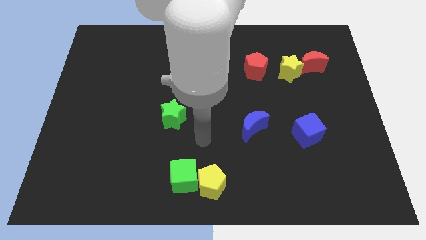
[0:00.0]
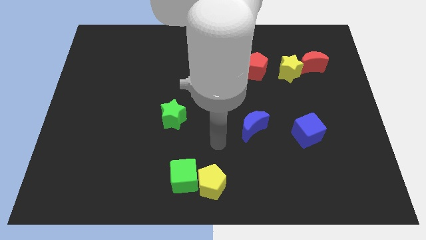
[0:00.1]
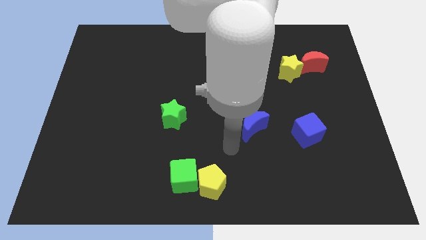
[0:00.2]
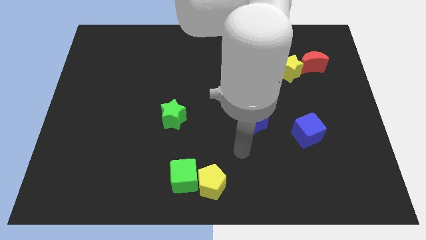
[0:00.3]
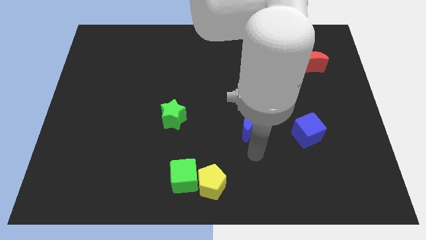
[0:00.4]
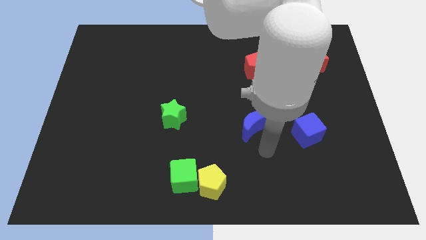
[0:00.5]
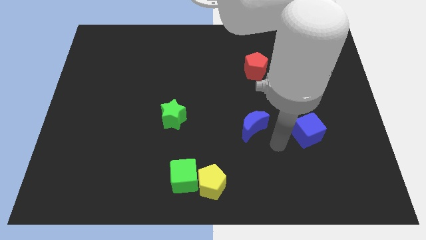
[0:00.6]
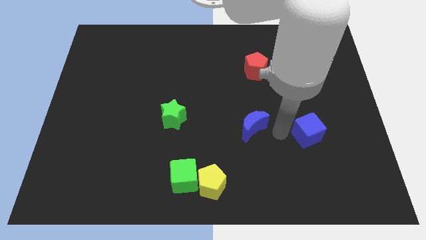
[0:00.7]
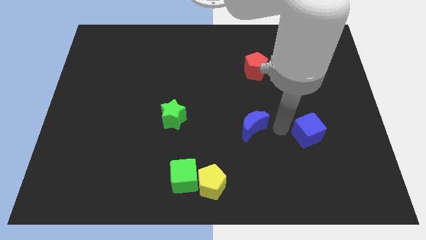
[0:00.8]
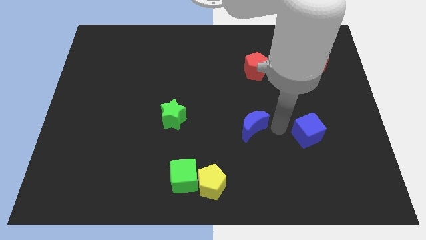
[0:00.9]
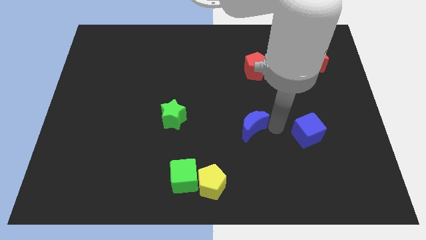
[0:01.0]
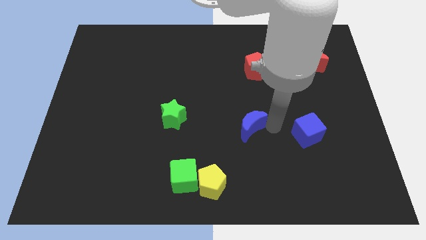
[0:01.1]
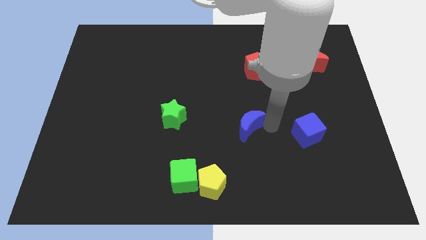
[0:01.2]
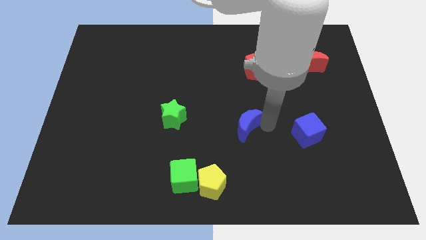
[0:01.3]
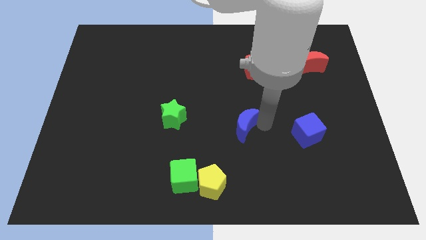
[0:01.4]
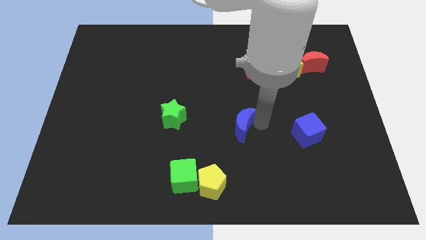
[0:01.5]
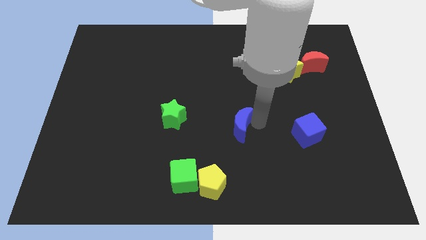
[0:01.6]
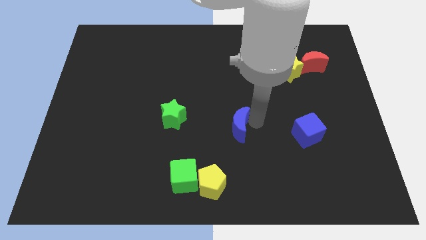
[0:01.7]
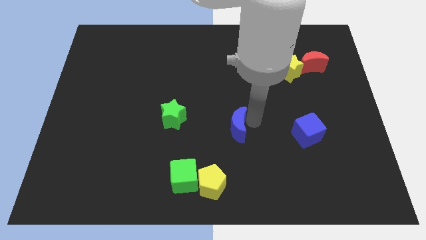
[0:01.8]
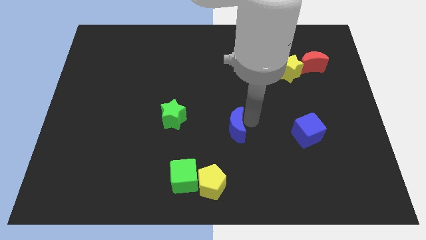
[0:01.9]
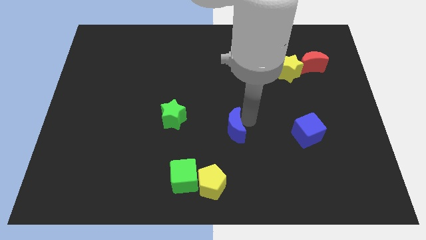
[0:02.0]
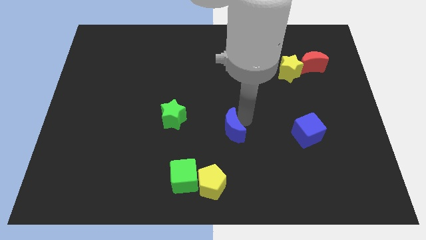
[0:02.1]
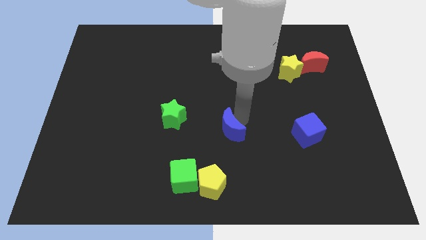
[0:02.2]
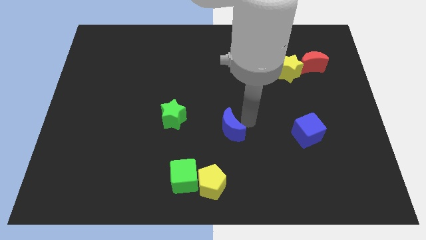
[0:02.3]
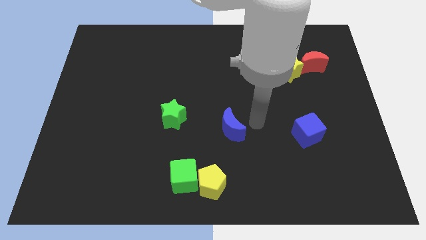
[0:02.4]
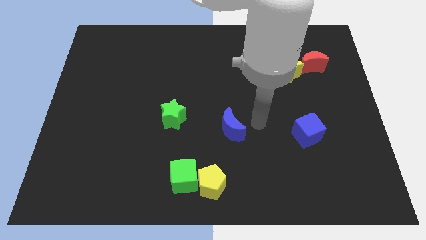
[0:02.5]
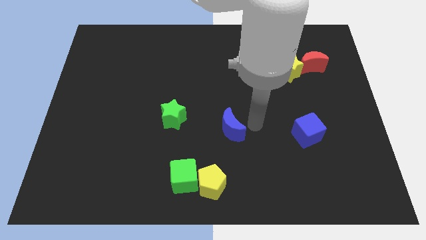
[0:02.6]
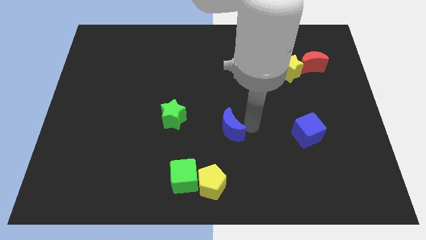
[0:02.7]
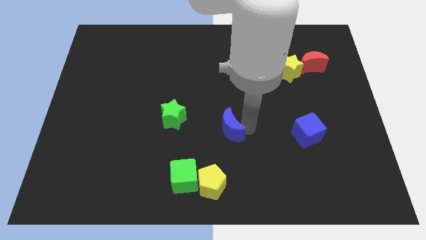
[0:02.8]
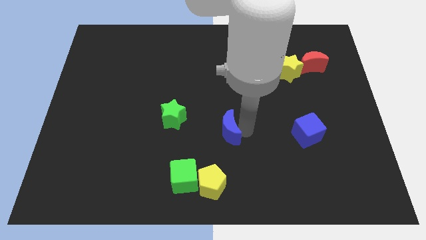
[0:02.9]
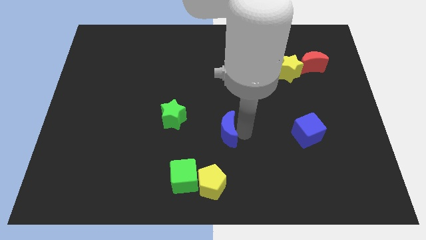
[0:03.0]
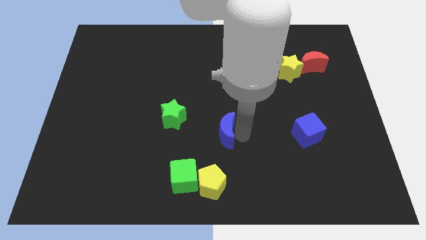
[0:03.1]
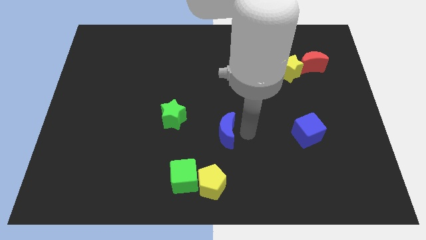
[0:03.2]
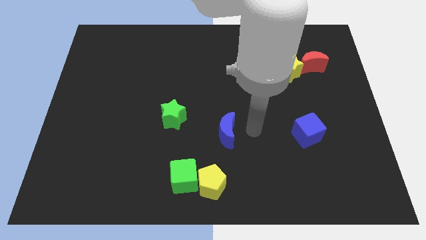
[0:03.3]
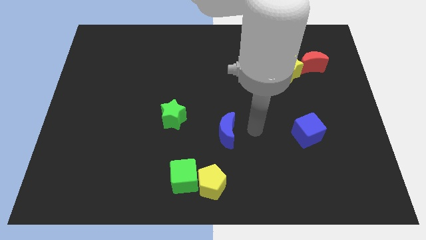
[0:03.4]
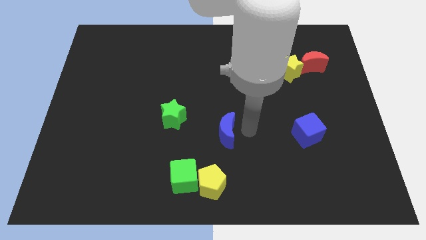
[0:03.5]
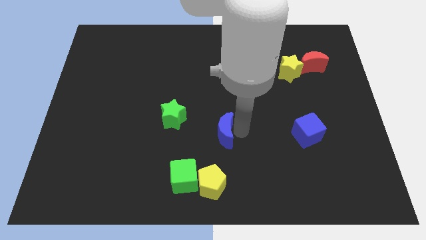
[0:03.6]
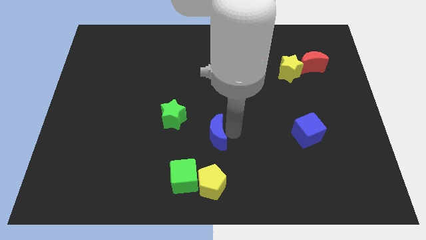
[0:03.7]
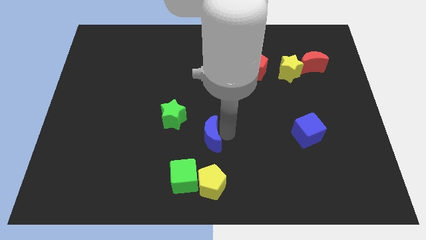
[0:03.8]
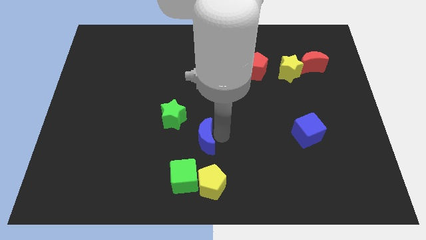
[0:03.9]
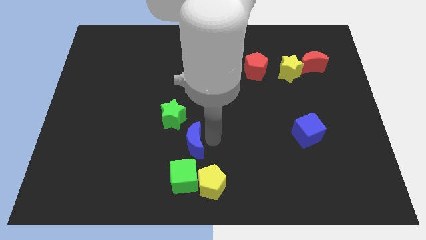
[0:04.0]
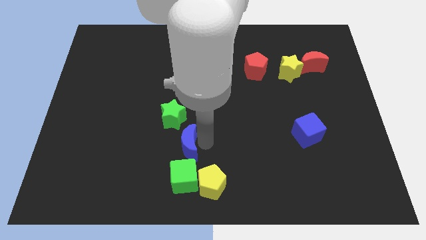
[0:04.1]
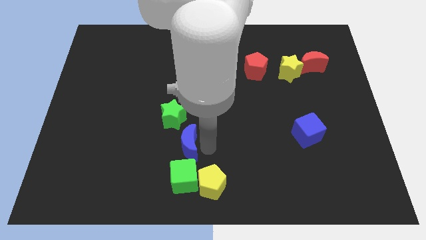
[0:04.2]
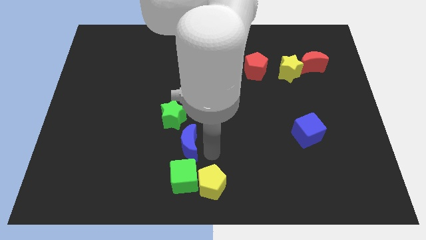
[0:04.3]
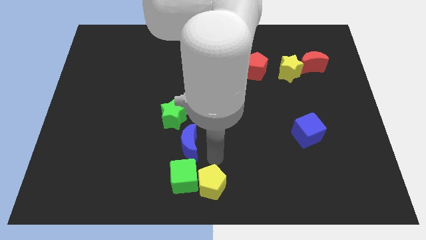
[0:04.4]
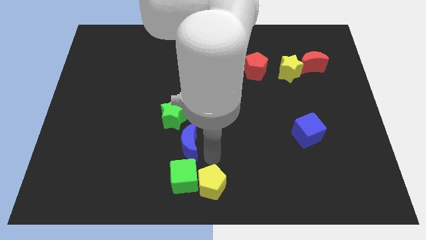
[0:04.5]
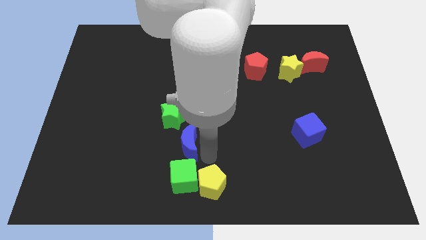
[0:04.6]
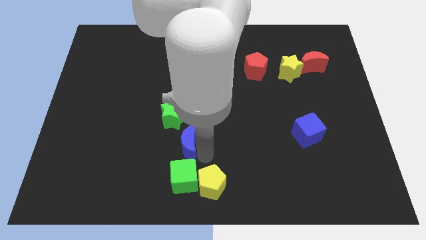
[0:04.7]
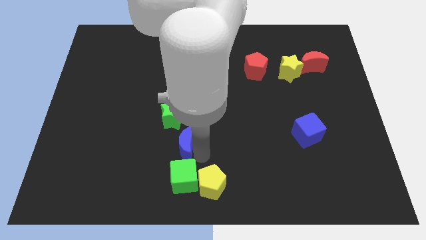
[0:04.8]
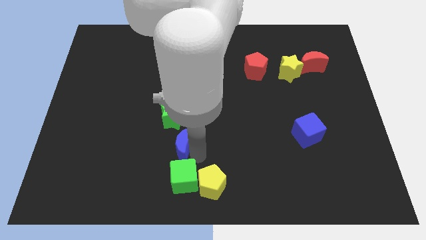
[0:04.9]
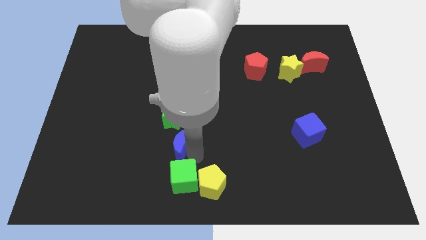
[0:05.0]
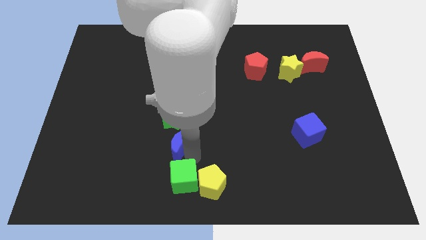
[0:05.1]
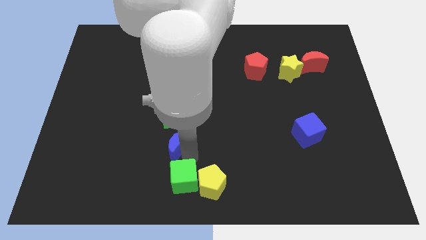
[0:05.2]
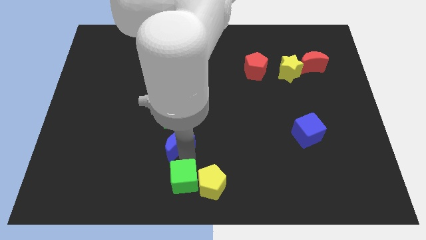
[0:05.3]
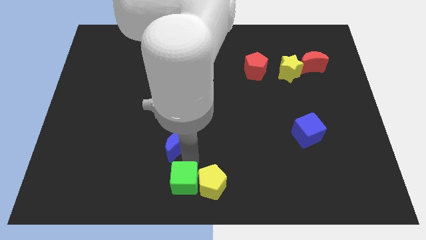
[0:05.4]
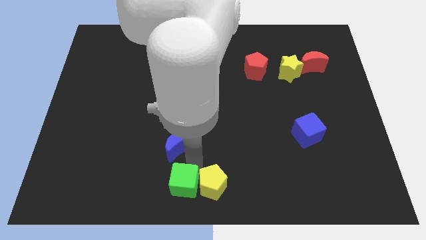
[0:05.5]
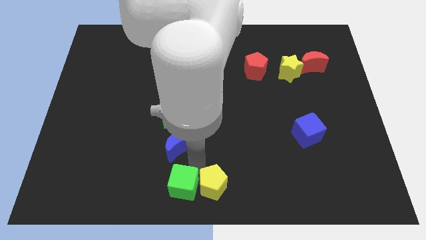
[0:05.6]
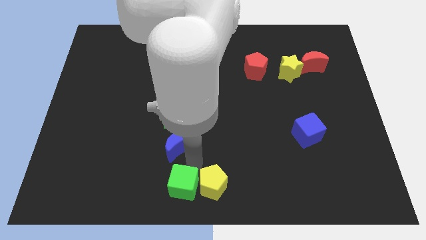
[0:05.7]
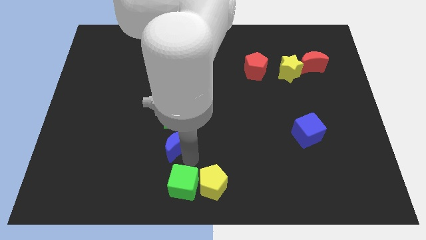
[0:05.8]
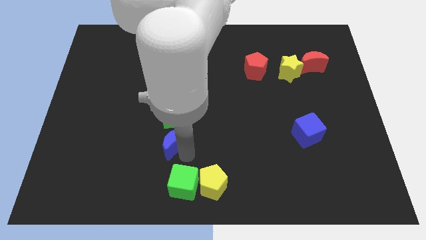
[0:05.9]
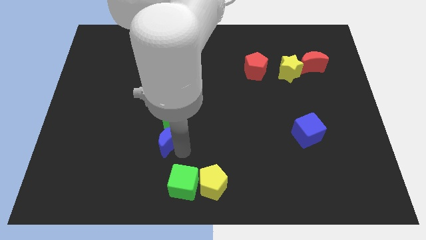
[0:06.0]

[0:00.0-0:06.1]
push the blue moon to the bottom left side of the green star
